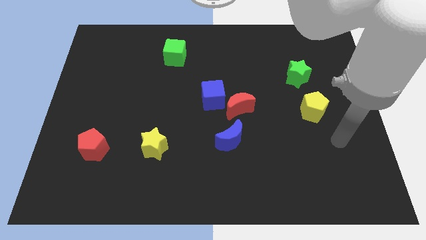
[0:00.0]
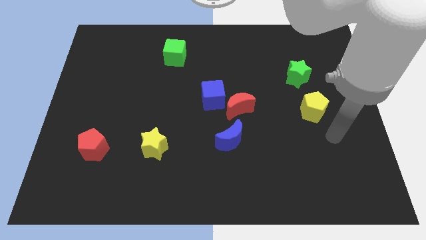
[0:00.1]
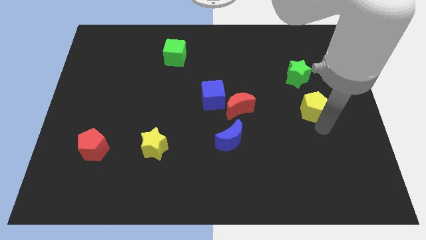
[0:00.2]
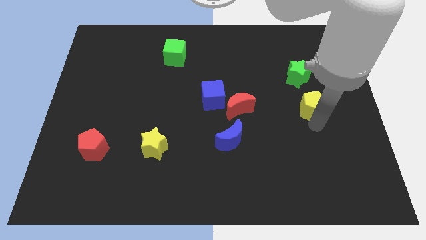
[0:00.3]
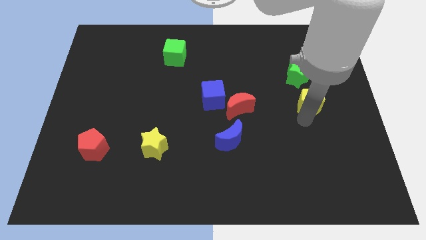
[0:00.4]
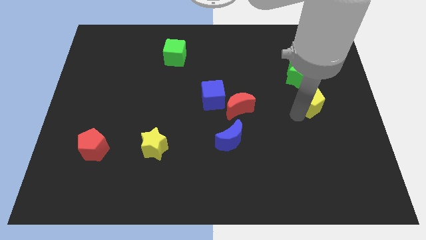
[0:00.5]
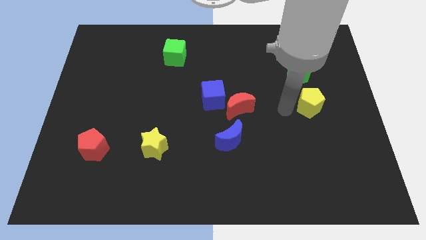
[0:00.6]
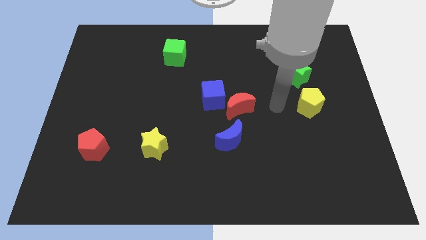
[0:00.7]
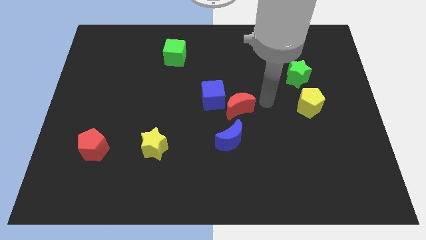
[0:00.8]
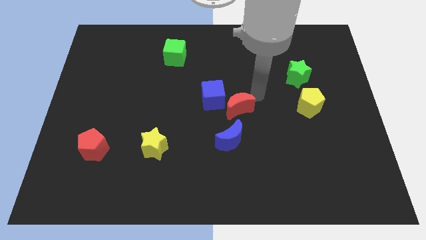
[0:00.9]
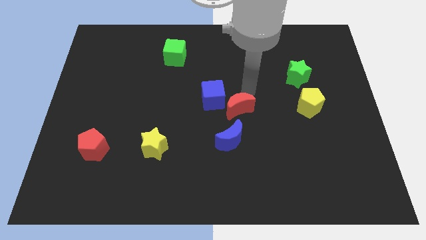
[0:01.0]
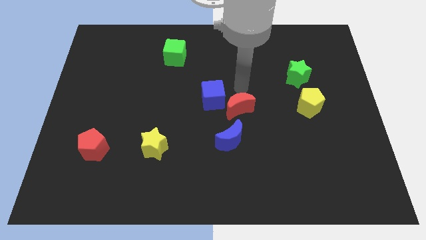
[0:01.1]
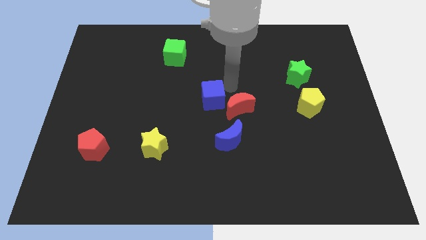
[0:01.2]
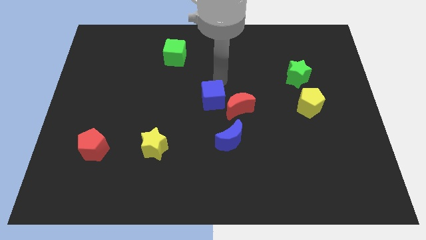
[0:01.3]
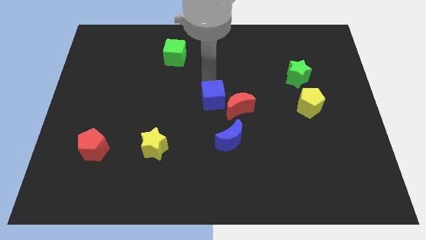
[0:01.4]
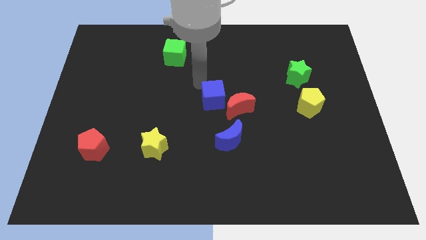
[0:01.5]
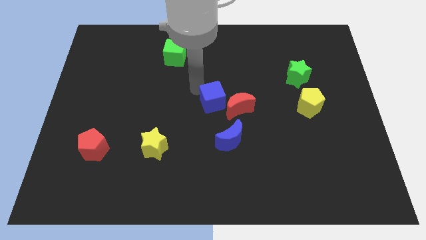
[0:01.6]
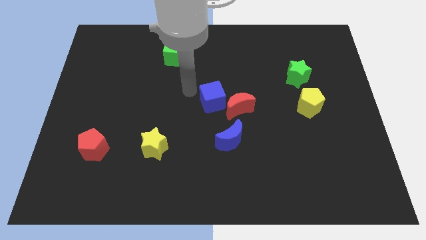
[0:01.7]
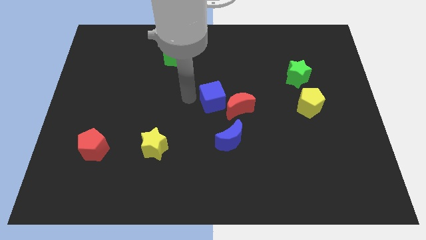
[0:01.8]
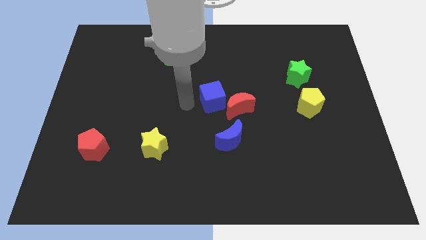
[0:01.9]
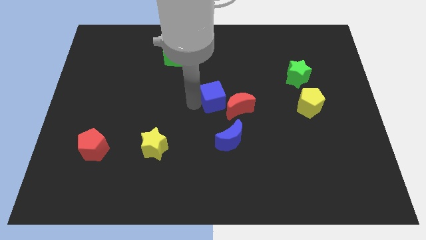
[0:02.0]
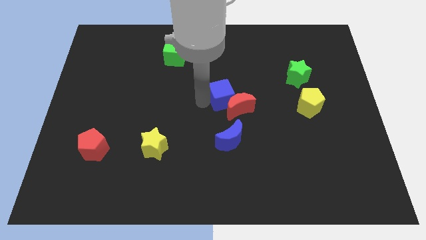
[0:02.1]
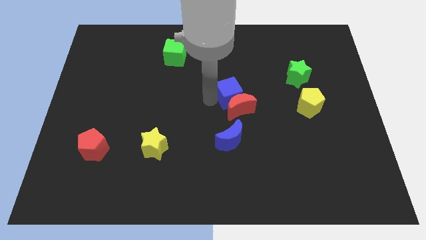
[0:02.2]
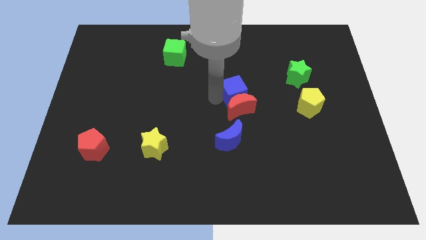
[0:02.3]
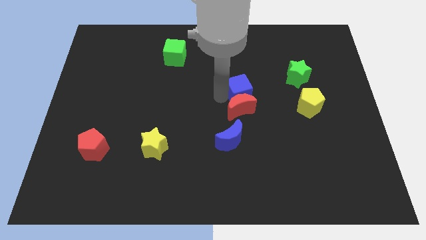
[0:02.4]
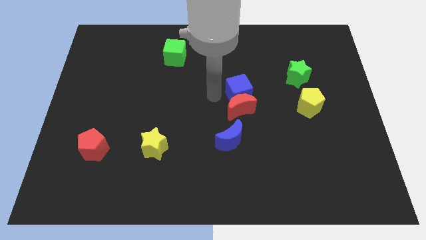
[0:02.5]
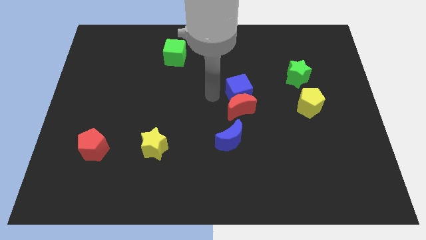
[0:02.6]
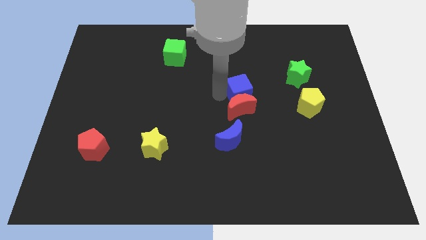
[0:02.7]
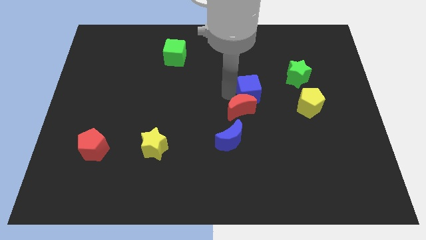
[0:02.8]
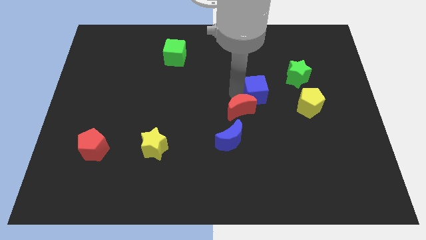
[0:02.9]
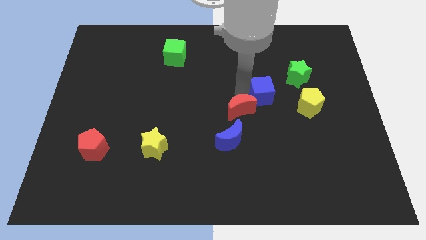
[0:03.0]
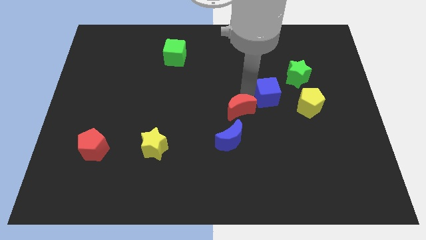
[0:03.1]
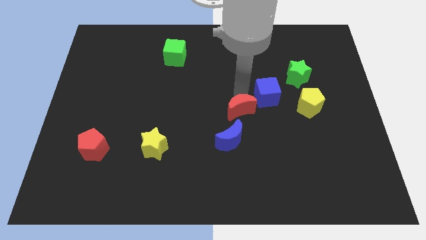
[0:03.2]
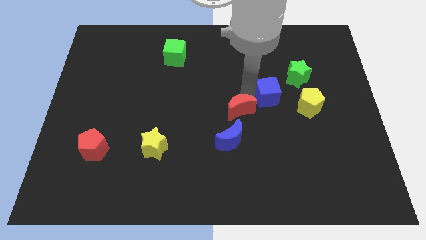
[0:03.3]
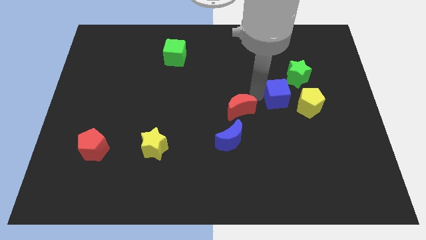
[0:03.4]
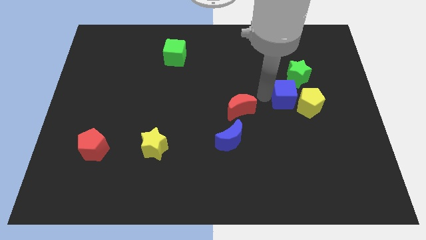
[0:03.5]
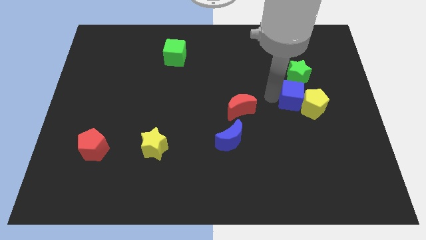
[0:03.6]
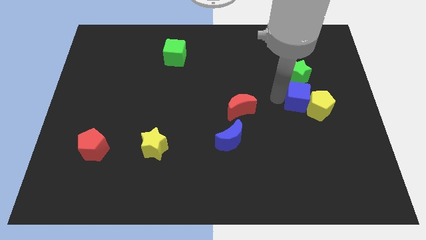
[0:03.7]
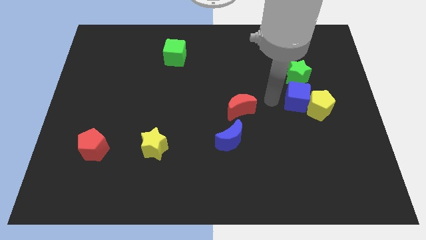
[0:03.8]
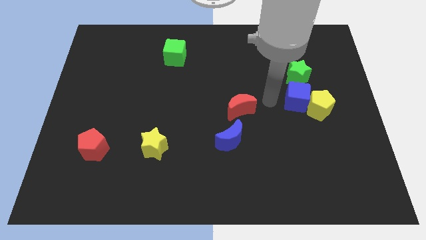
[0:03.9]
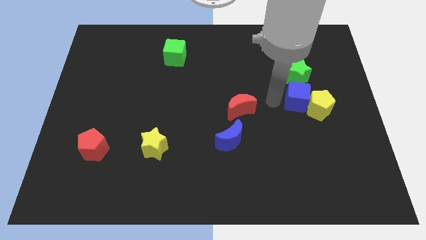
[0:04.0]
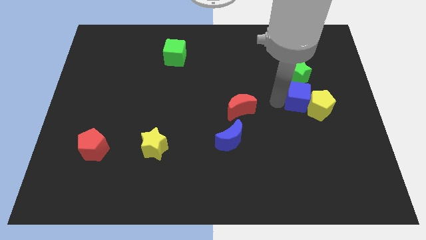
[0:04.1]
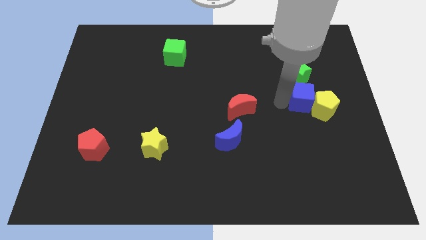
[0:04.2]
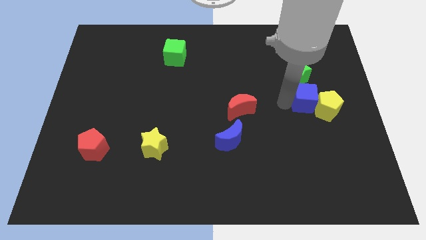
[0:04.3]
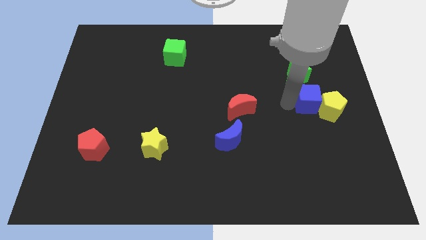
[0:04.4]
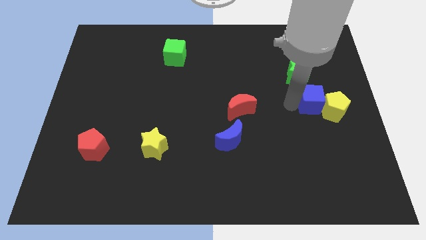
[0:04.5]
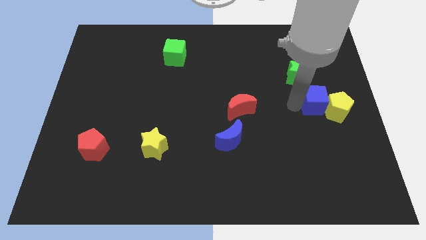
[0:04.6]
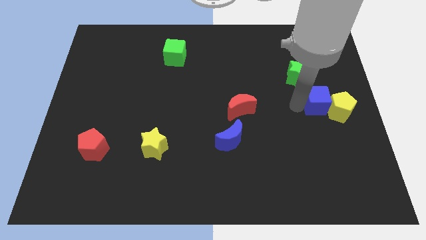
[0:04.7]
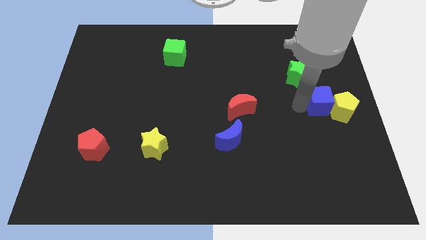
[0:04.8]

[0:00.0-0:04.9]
push the blue cube to the right side of the board
